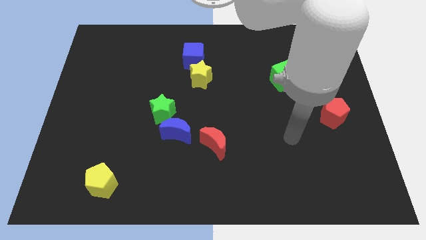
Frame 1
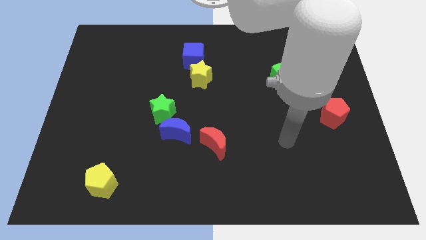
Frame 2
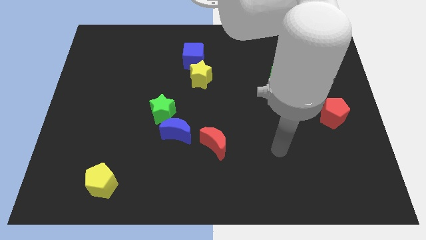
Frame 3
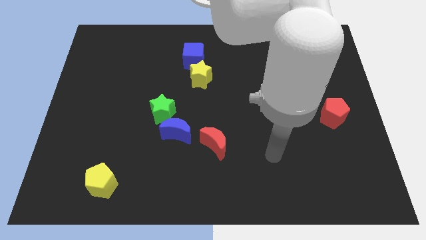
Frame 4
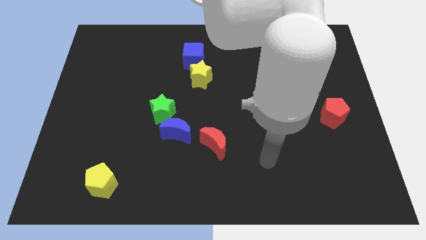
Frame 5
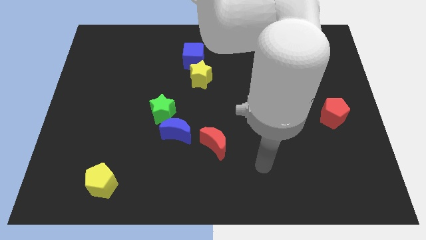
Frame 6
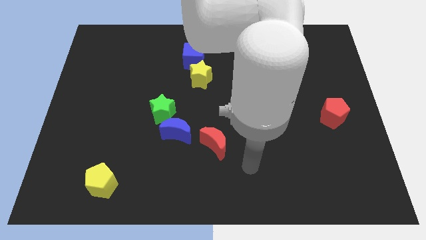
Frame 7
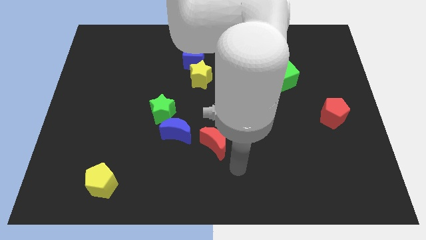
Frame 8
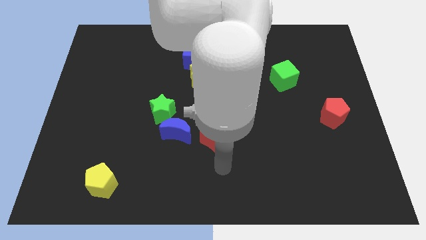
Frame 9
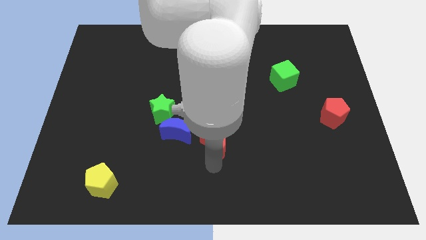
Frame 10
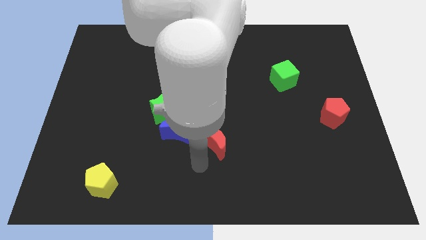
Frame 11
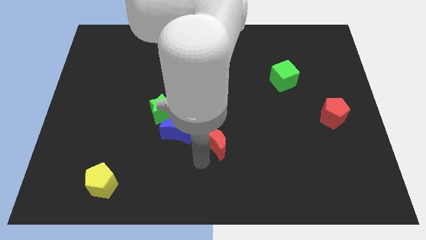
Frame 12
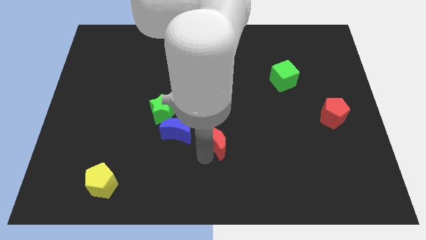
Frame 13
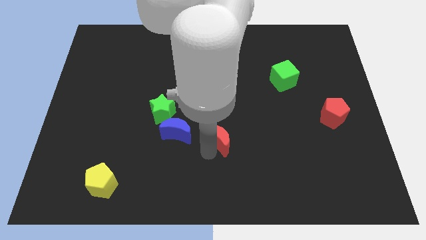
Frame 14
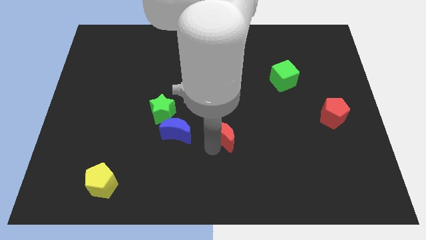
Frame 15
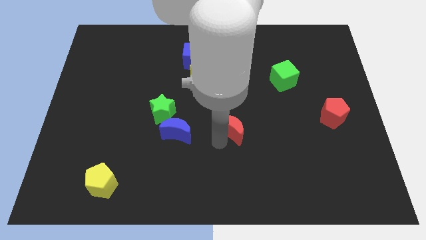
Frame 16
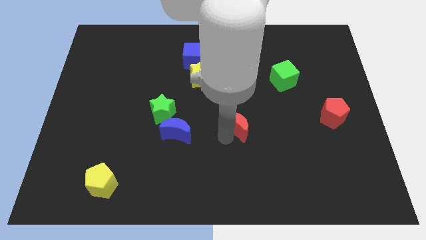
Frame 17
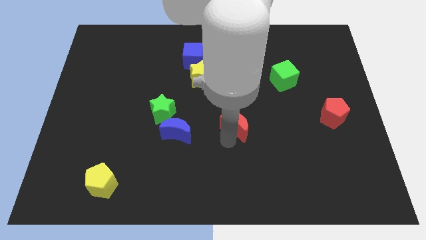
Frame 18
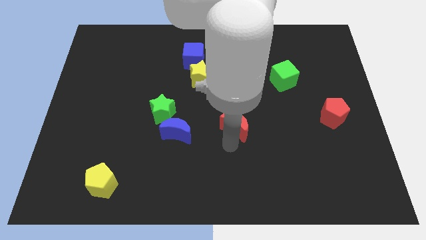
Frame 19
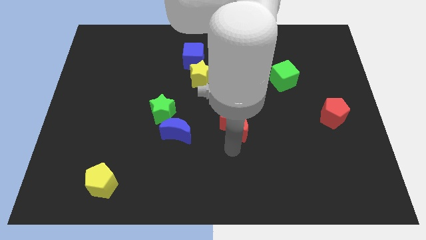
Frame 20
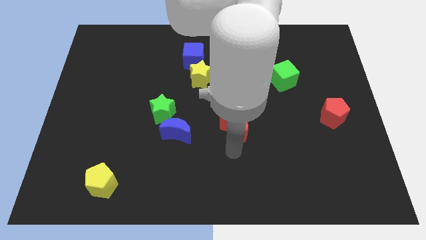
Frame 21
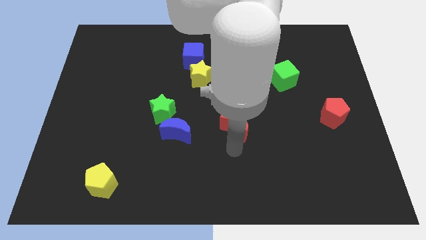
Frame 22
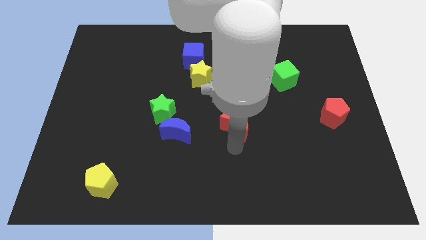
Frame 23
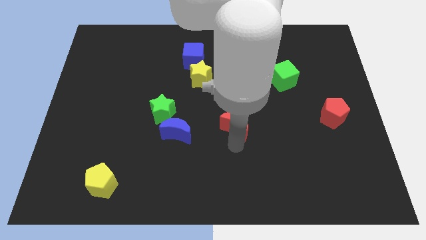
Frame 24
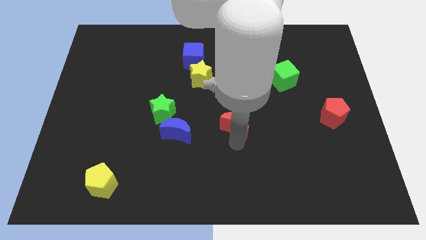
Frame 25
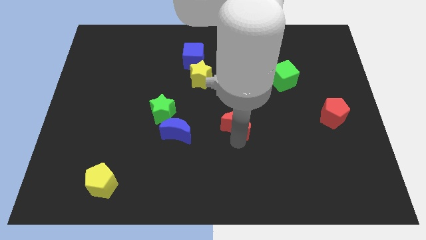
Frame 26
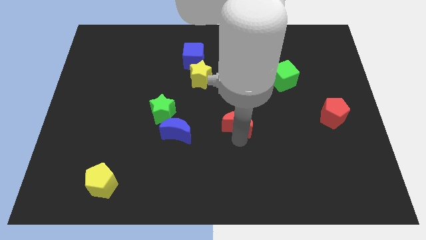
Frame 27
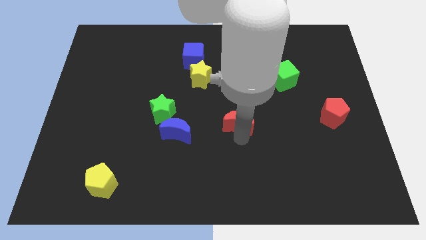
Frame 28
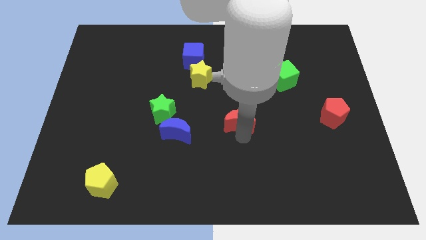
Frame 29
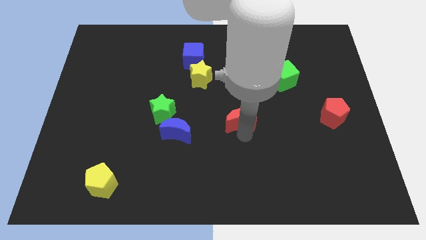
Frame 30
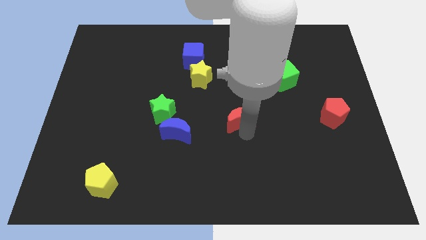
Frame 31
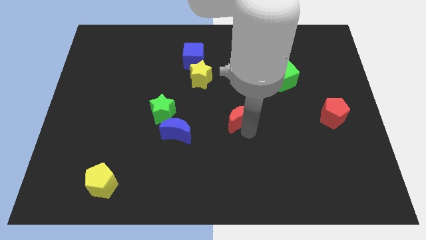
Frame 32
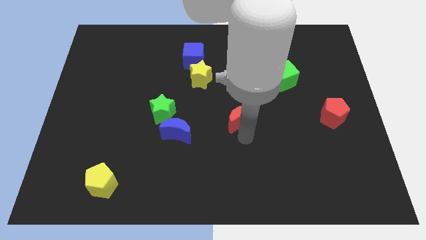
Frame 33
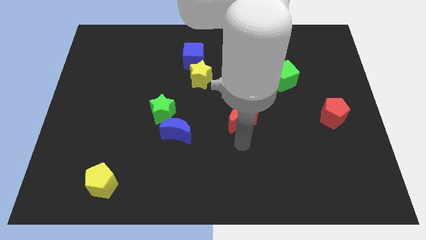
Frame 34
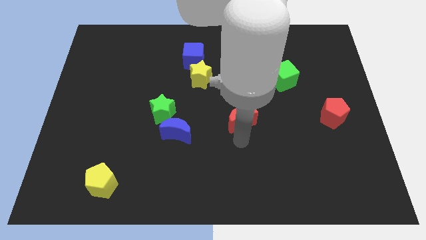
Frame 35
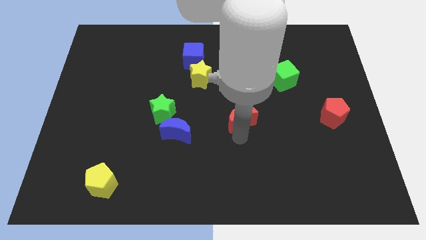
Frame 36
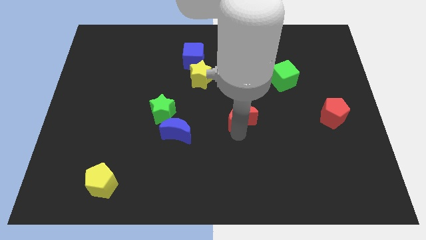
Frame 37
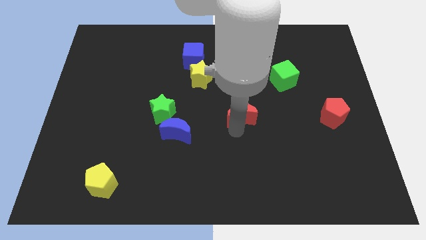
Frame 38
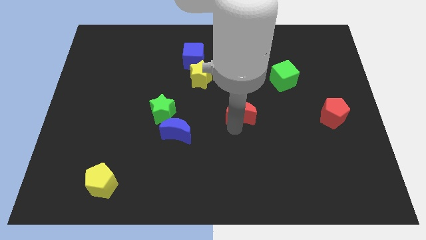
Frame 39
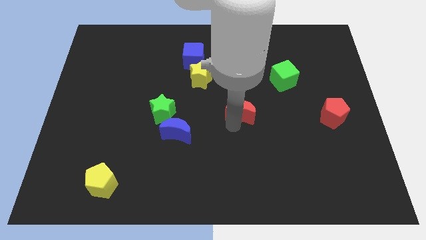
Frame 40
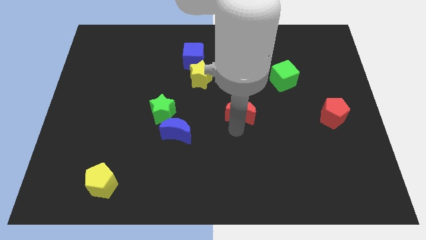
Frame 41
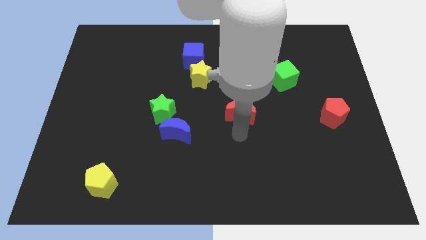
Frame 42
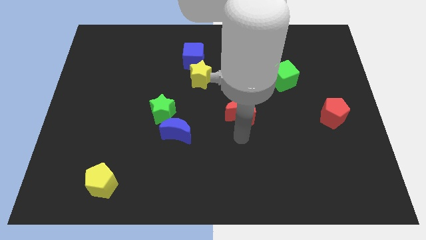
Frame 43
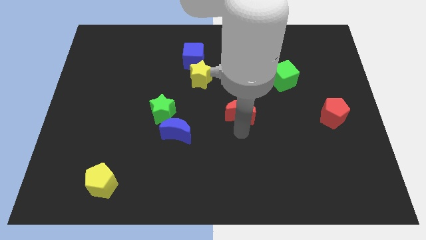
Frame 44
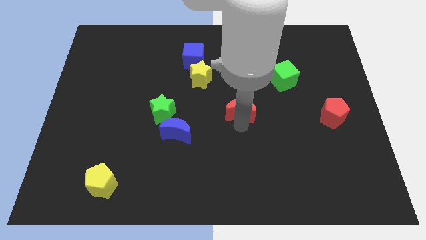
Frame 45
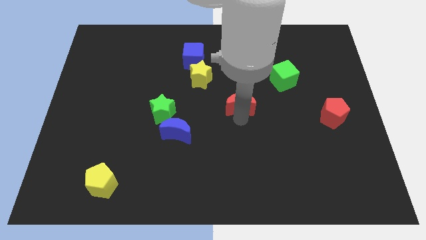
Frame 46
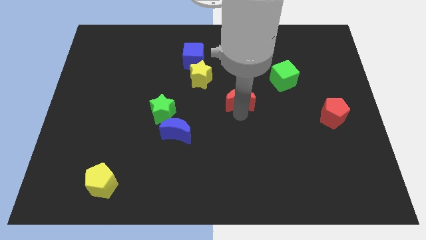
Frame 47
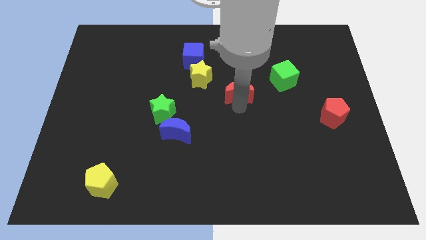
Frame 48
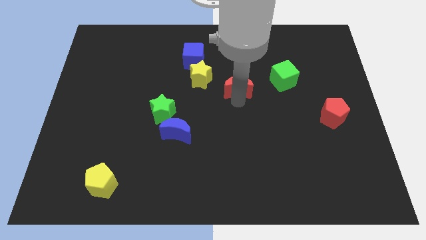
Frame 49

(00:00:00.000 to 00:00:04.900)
push the red moon just right of the yellow star

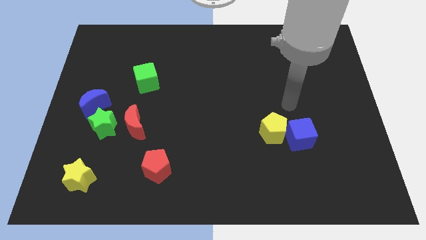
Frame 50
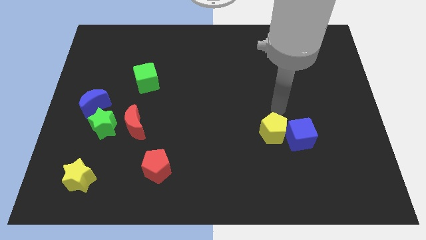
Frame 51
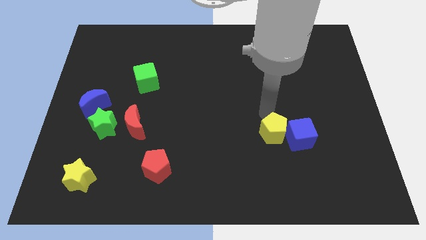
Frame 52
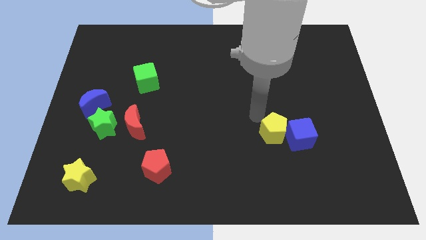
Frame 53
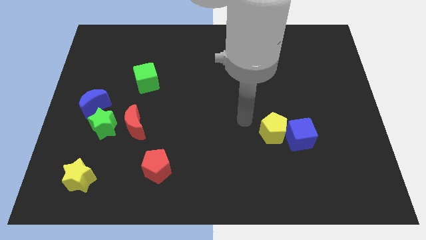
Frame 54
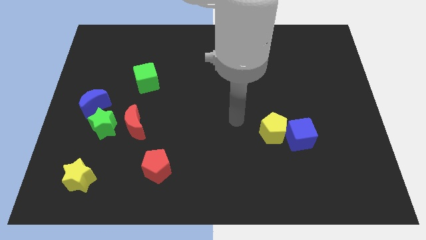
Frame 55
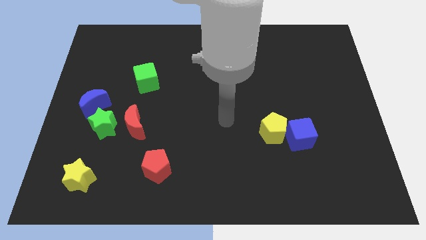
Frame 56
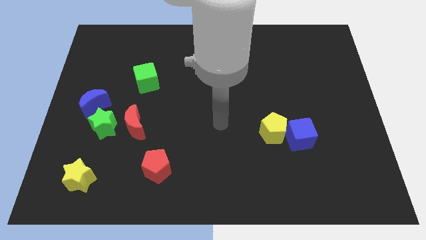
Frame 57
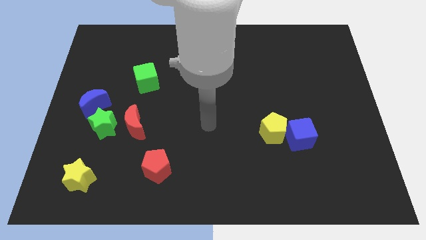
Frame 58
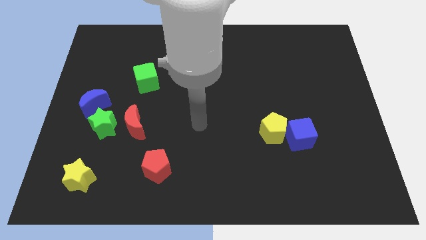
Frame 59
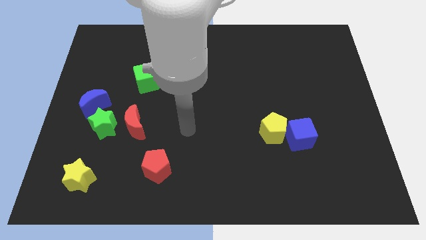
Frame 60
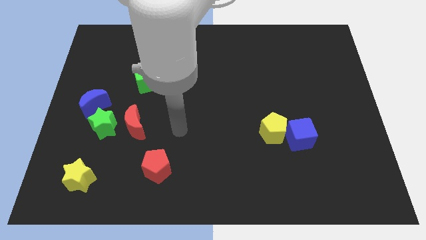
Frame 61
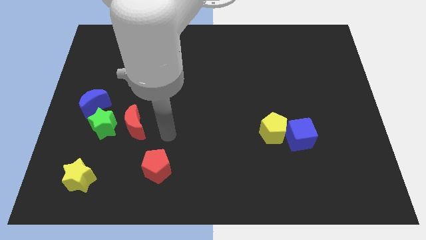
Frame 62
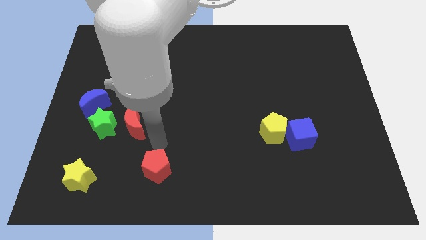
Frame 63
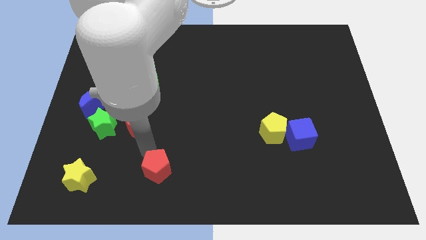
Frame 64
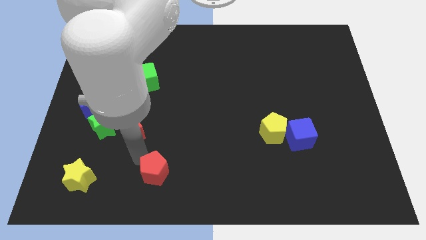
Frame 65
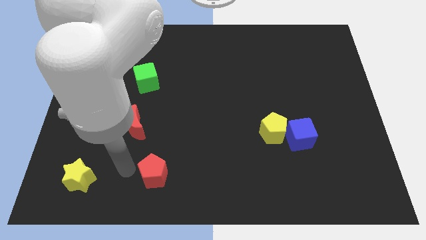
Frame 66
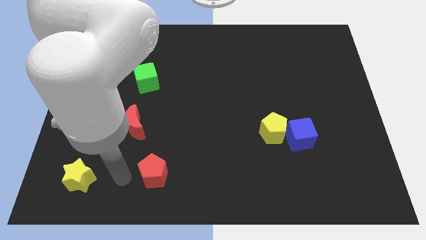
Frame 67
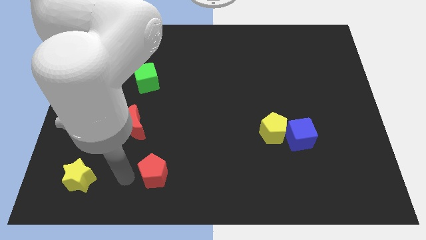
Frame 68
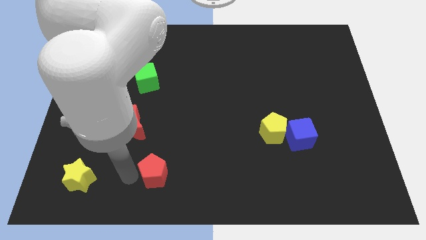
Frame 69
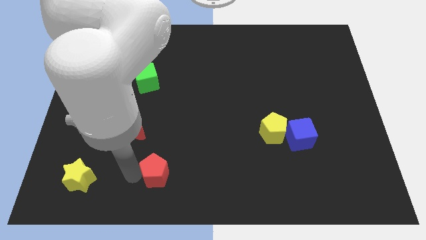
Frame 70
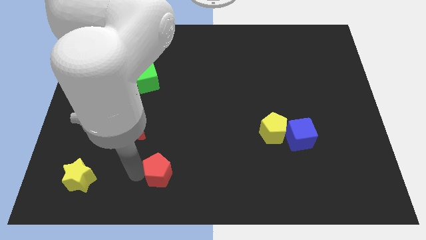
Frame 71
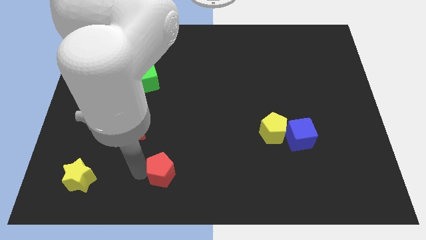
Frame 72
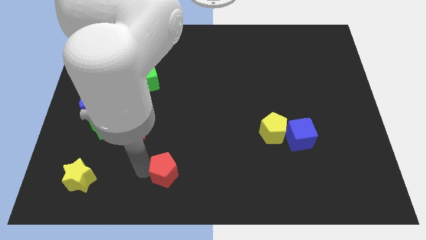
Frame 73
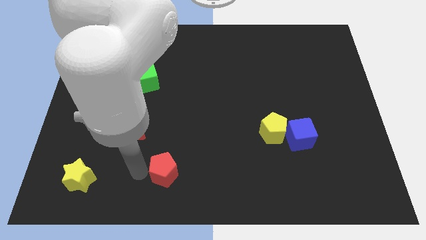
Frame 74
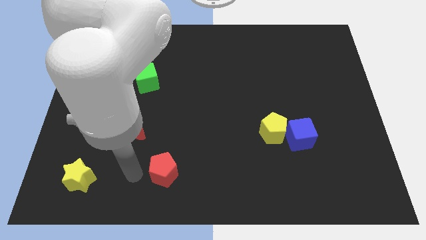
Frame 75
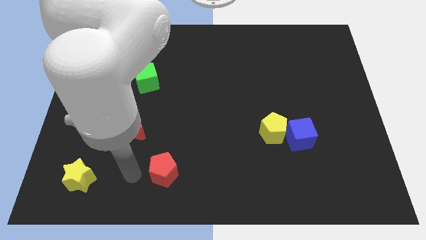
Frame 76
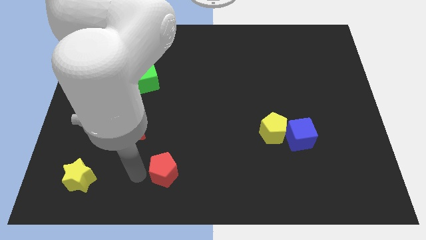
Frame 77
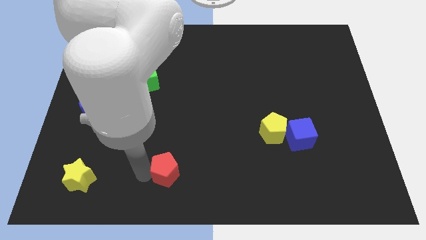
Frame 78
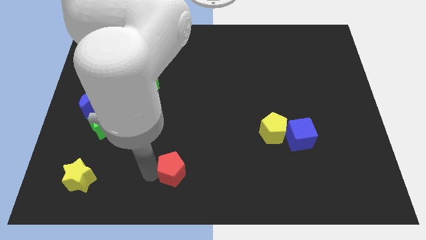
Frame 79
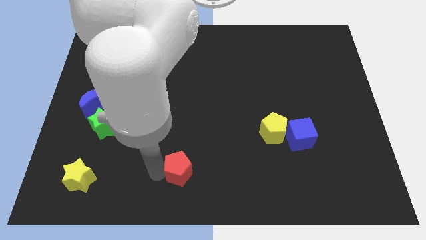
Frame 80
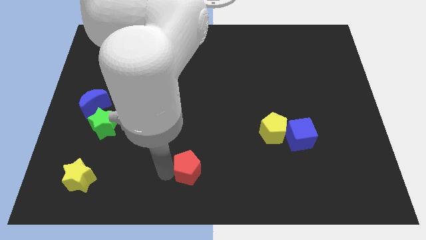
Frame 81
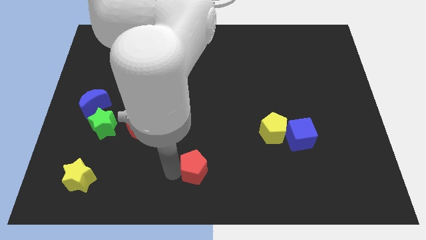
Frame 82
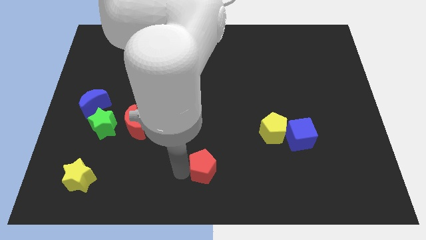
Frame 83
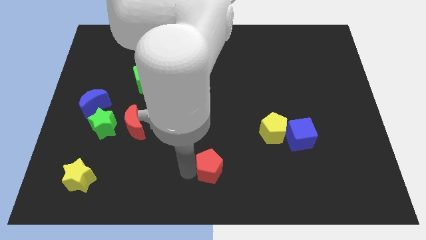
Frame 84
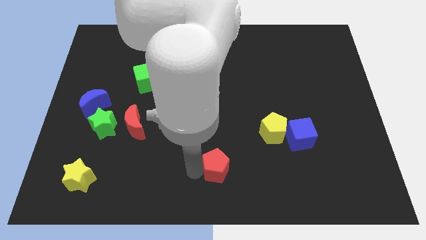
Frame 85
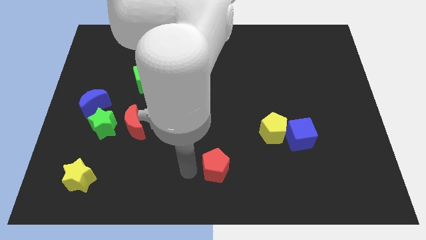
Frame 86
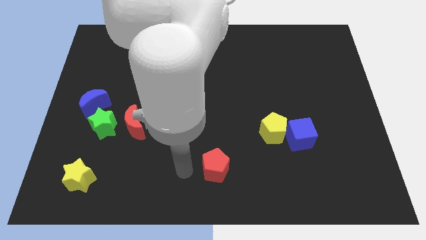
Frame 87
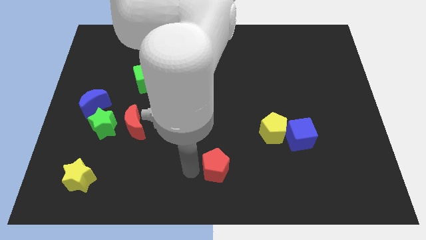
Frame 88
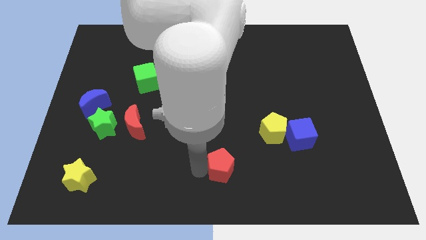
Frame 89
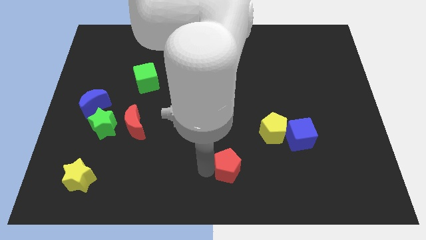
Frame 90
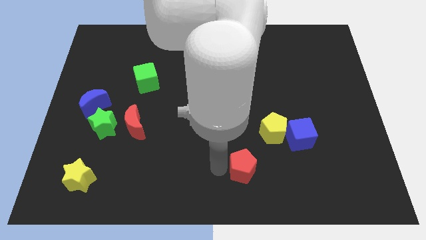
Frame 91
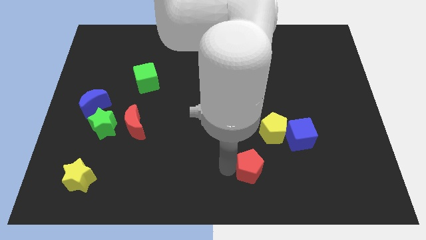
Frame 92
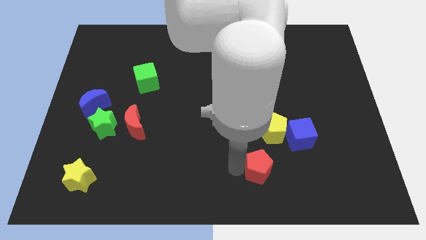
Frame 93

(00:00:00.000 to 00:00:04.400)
slide the red pentagon to the bottom side of the yellow pentagon
